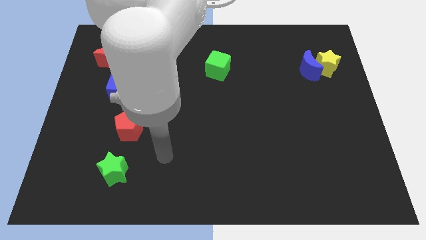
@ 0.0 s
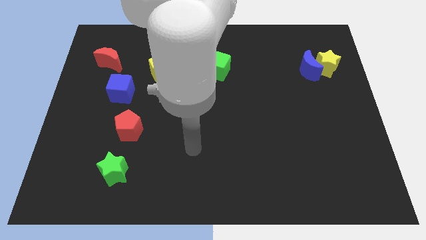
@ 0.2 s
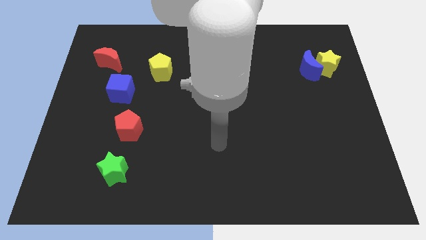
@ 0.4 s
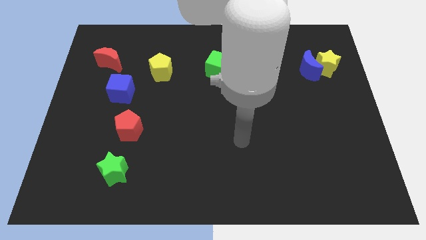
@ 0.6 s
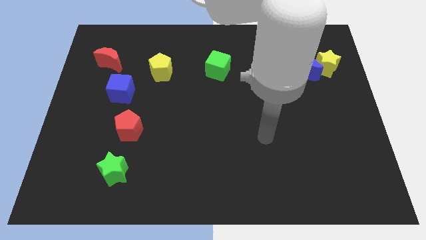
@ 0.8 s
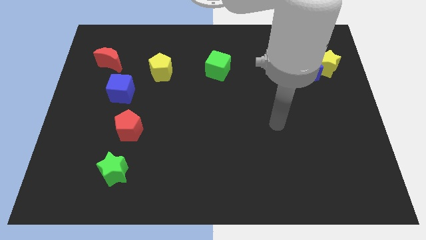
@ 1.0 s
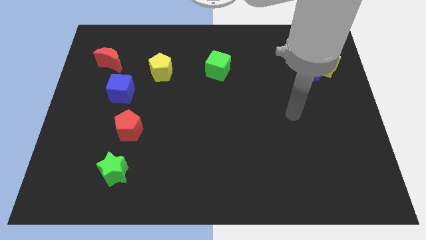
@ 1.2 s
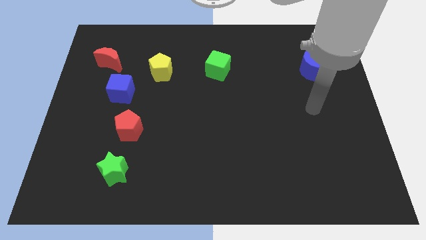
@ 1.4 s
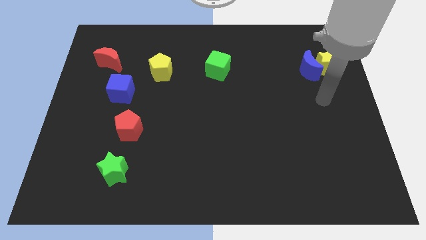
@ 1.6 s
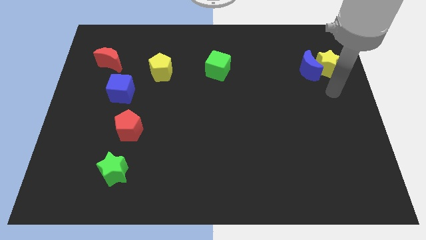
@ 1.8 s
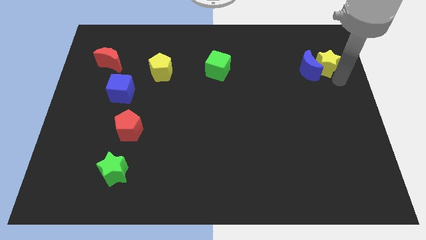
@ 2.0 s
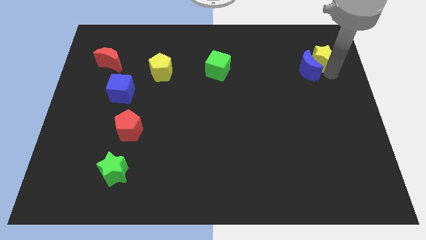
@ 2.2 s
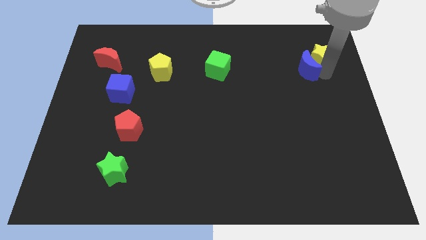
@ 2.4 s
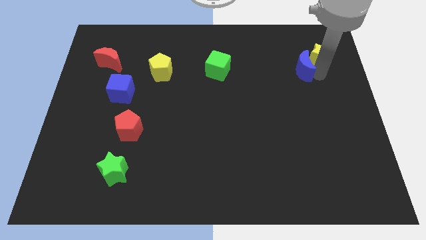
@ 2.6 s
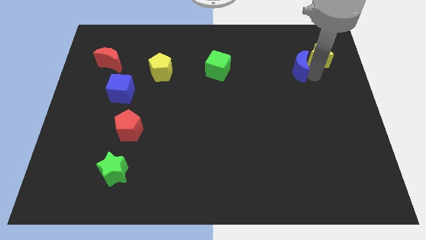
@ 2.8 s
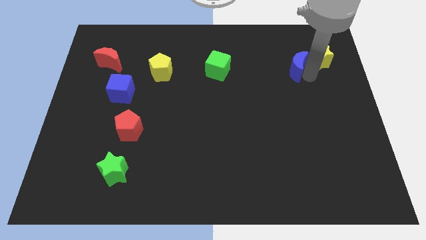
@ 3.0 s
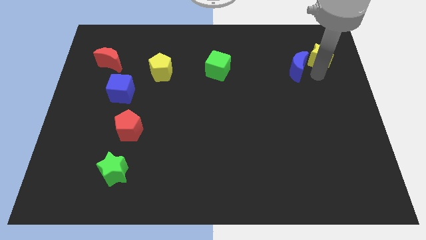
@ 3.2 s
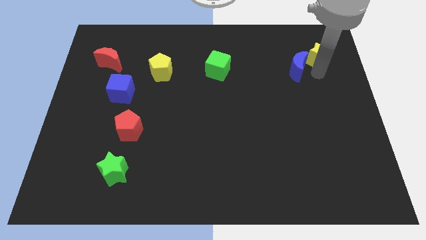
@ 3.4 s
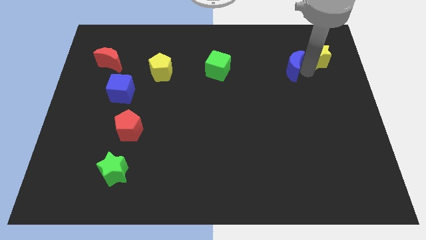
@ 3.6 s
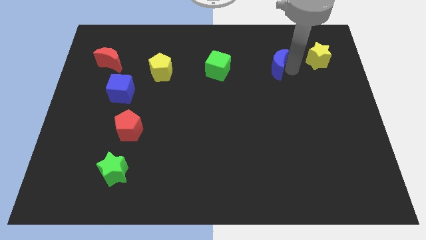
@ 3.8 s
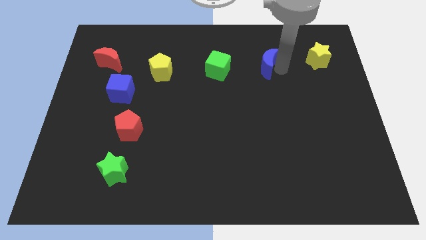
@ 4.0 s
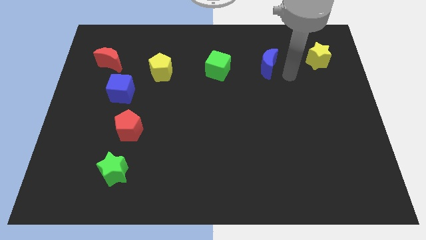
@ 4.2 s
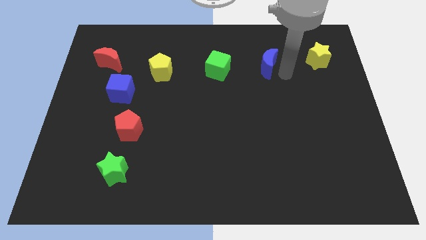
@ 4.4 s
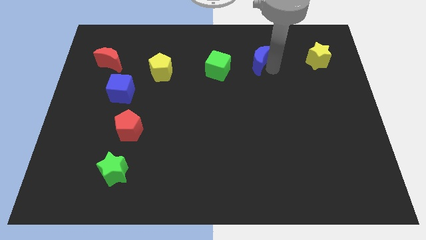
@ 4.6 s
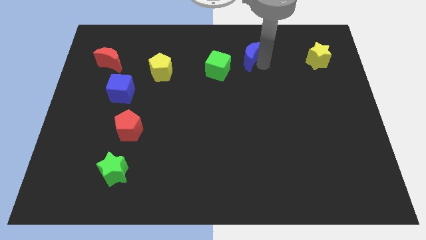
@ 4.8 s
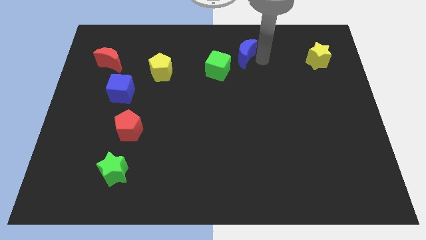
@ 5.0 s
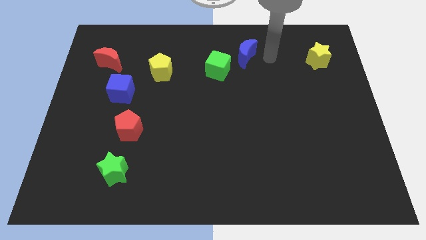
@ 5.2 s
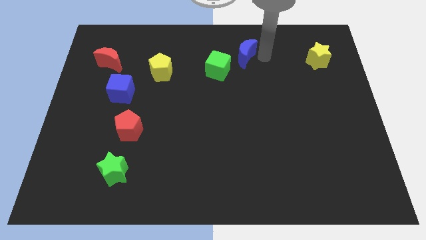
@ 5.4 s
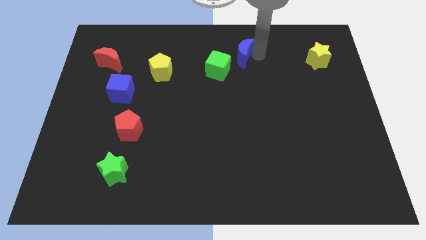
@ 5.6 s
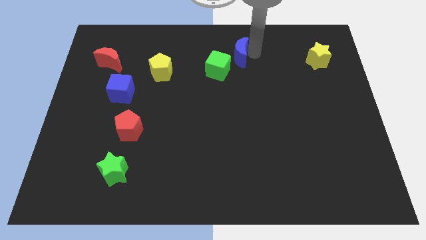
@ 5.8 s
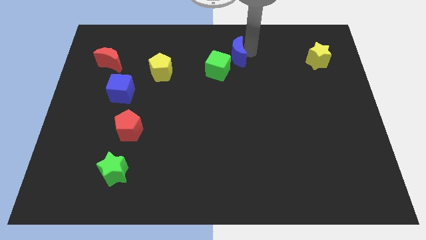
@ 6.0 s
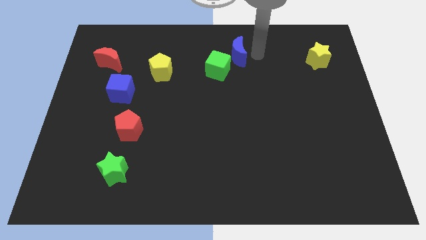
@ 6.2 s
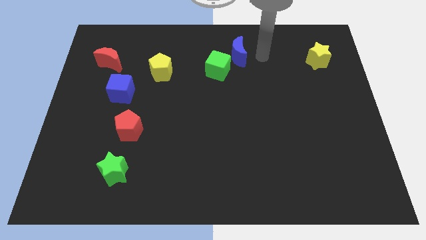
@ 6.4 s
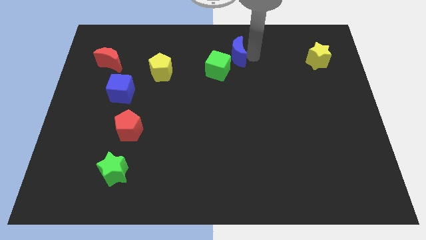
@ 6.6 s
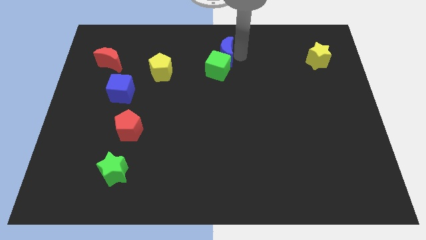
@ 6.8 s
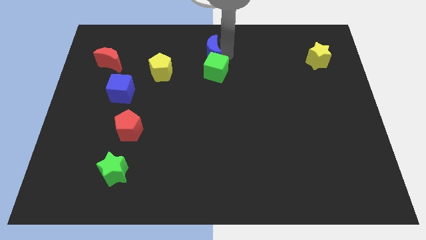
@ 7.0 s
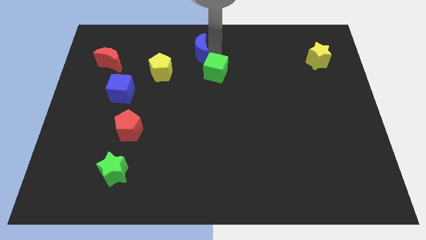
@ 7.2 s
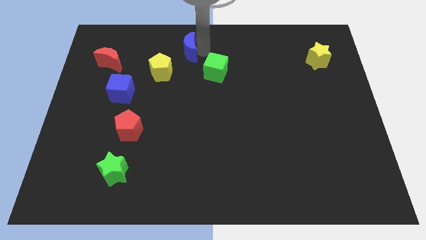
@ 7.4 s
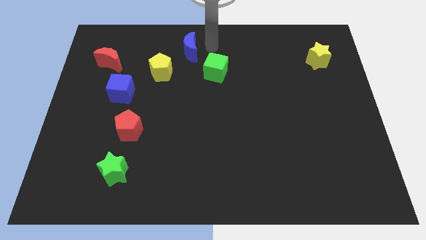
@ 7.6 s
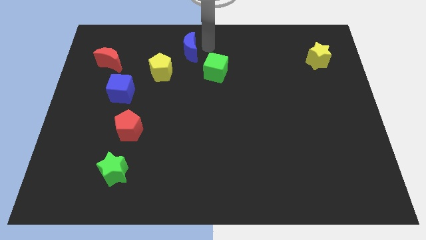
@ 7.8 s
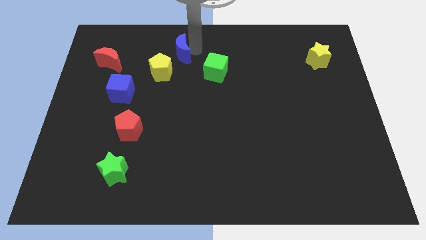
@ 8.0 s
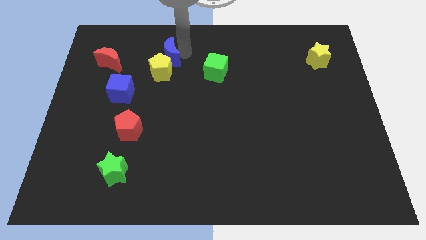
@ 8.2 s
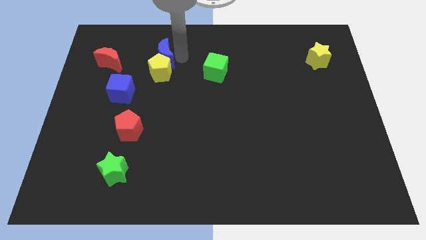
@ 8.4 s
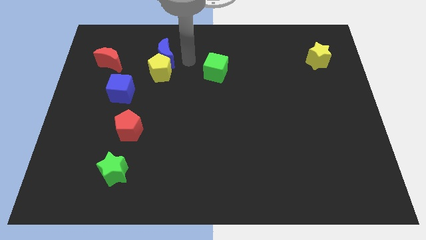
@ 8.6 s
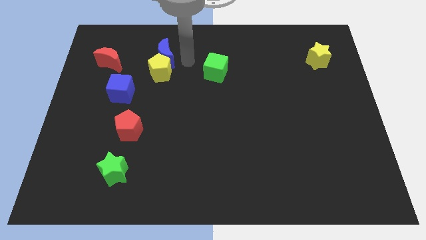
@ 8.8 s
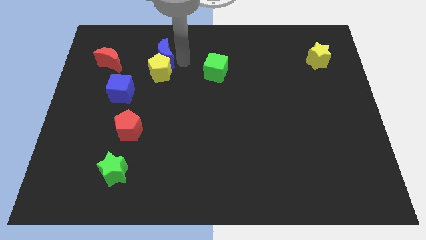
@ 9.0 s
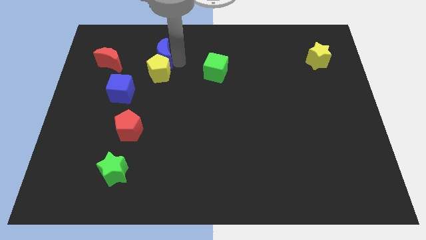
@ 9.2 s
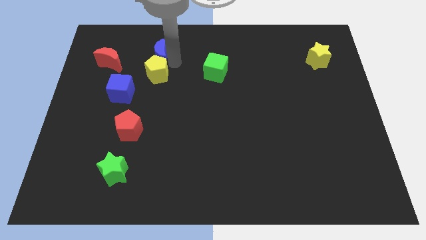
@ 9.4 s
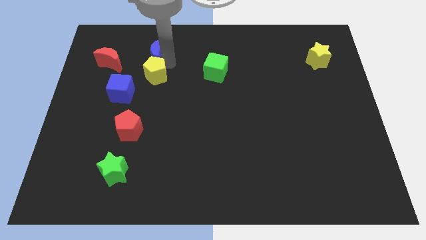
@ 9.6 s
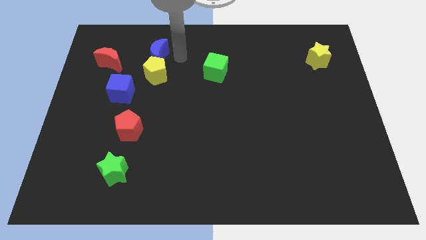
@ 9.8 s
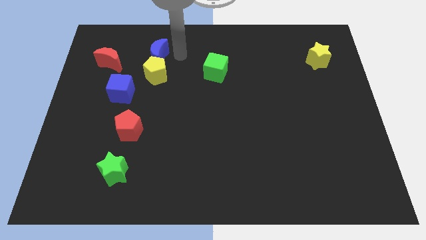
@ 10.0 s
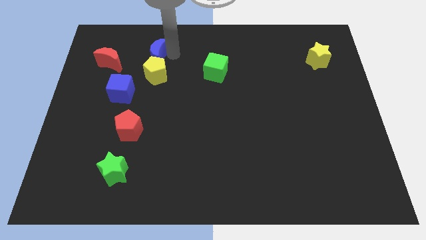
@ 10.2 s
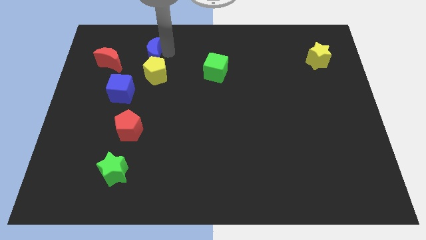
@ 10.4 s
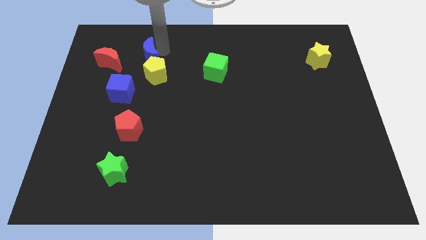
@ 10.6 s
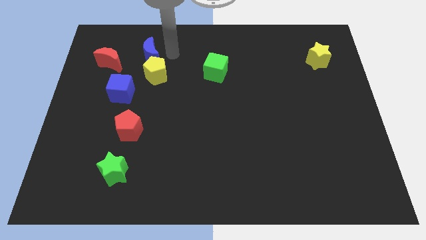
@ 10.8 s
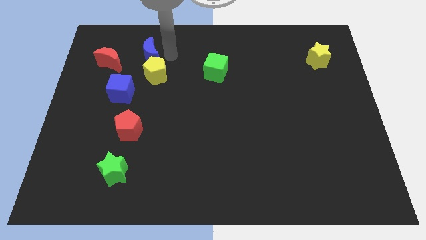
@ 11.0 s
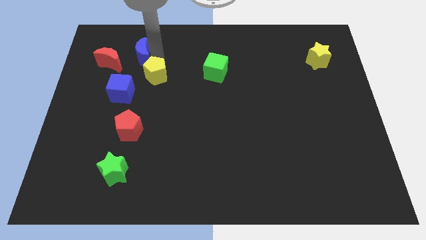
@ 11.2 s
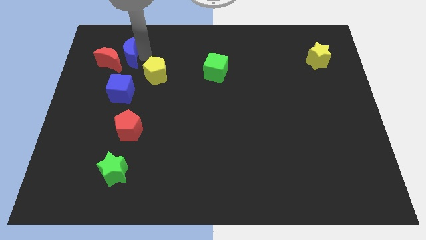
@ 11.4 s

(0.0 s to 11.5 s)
move the blue moon close to the red moon

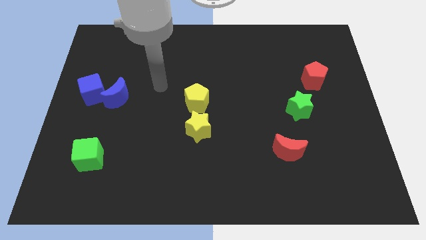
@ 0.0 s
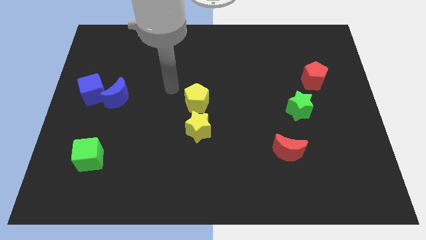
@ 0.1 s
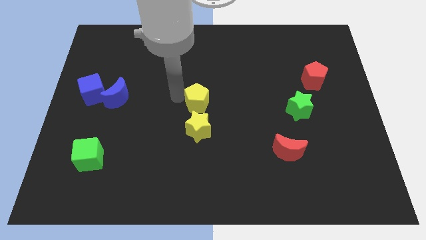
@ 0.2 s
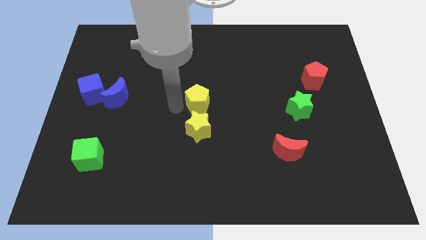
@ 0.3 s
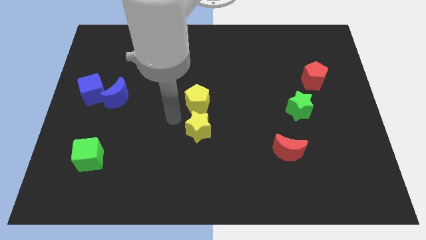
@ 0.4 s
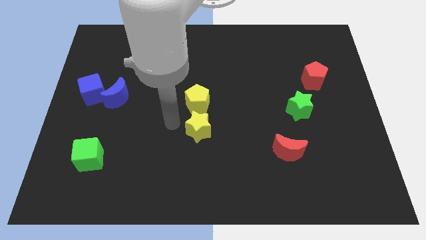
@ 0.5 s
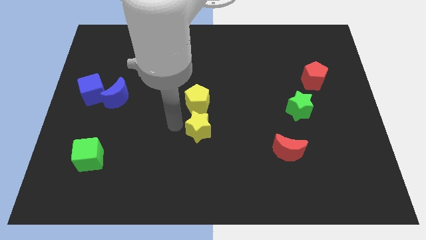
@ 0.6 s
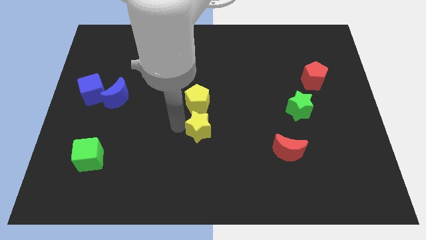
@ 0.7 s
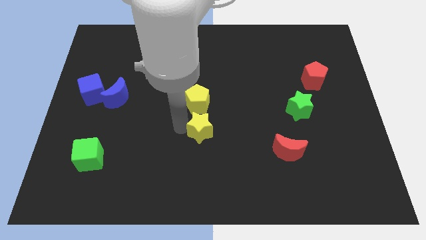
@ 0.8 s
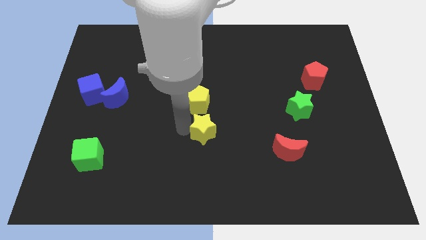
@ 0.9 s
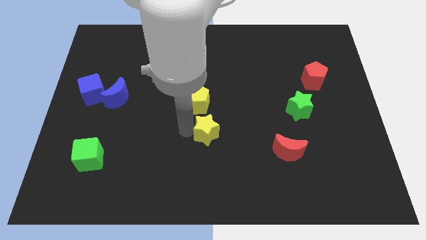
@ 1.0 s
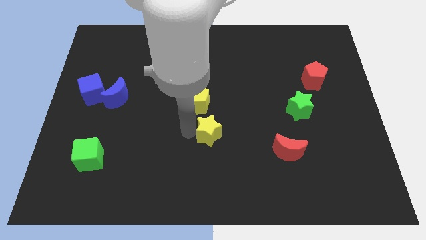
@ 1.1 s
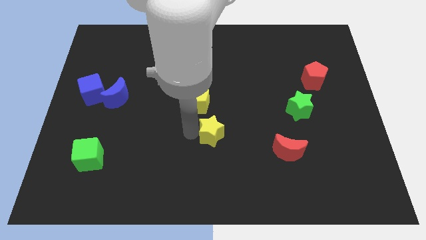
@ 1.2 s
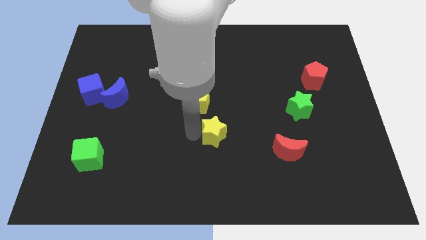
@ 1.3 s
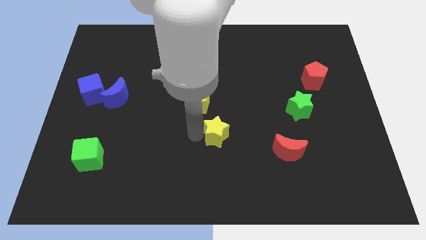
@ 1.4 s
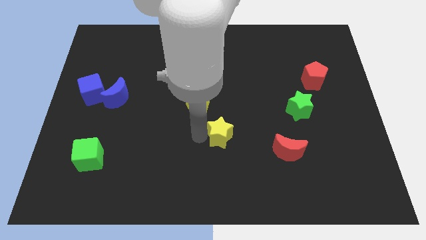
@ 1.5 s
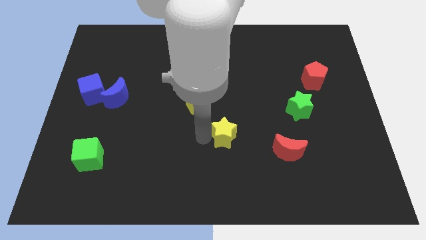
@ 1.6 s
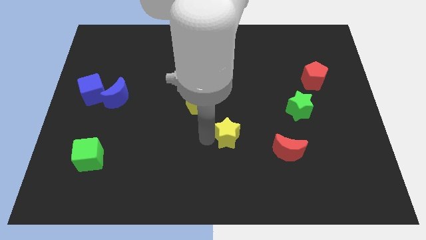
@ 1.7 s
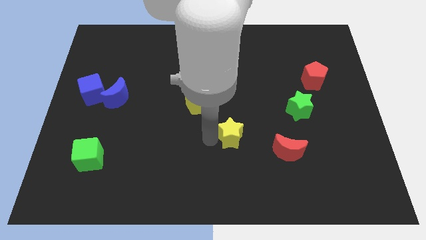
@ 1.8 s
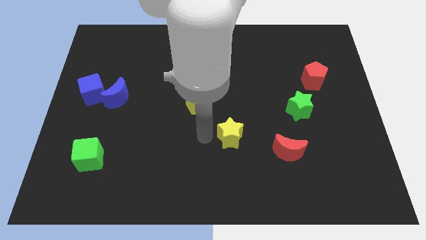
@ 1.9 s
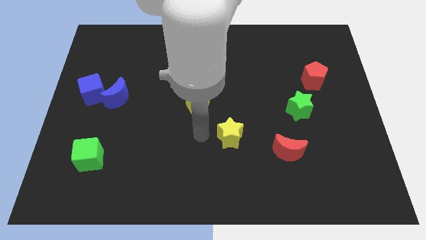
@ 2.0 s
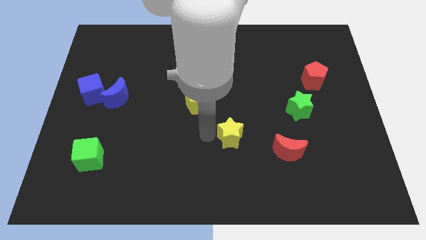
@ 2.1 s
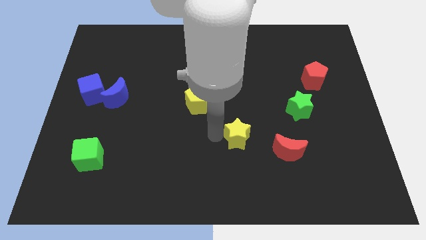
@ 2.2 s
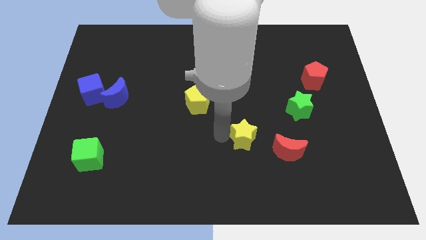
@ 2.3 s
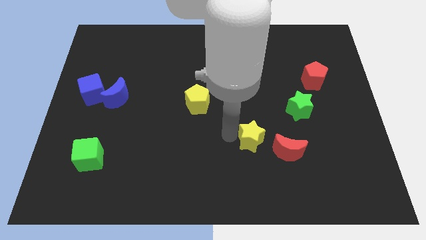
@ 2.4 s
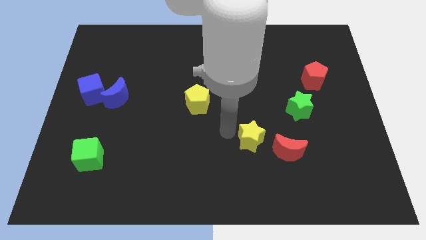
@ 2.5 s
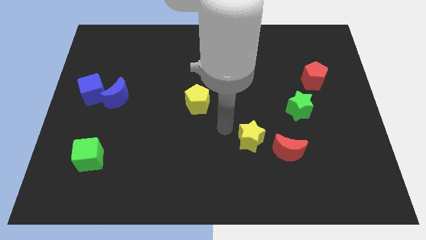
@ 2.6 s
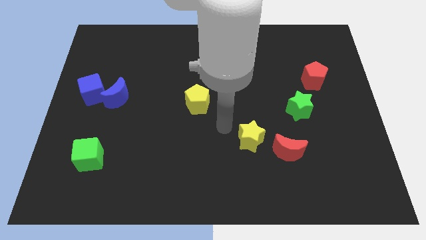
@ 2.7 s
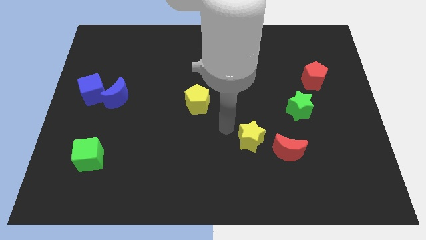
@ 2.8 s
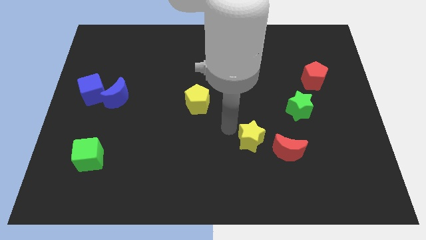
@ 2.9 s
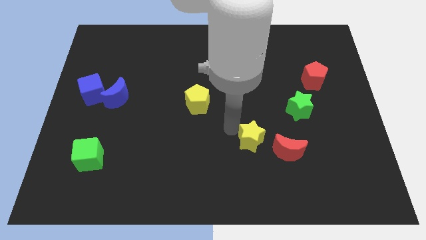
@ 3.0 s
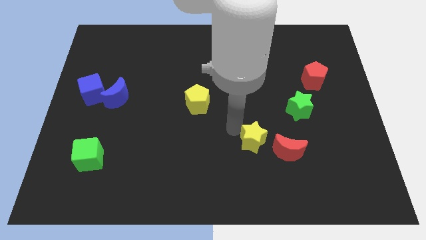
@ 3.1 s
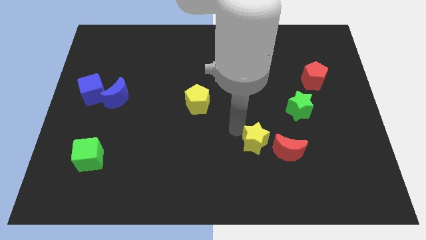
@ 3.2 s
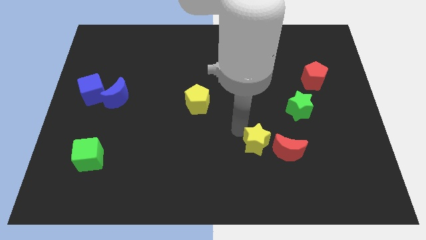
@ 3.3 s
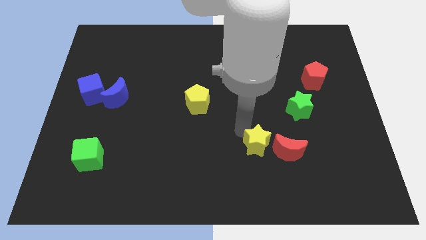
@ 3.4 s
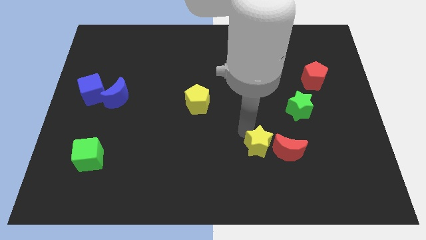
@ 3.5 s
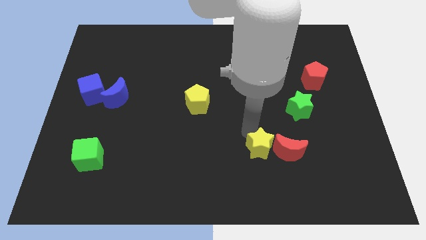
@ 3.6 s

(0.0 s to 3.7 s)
put the yellow star close to the red moon
